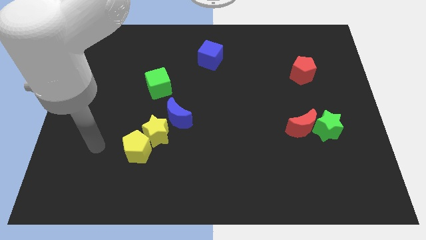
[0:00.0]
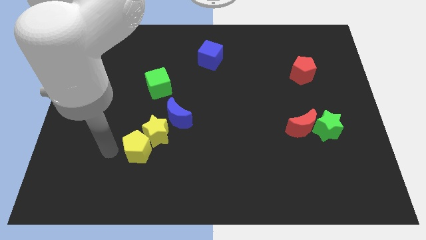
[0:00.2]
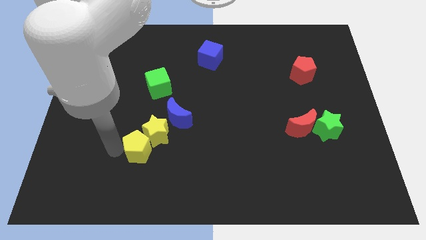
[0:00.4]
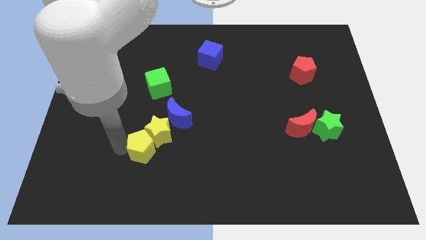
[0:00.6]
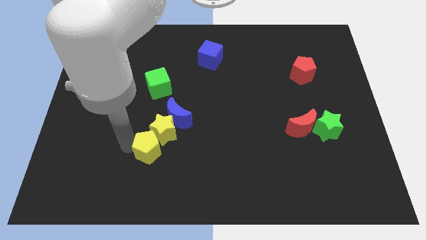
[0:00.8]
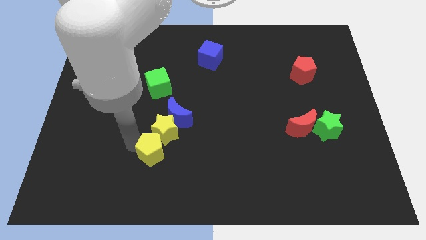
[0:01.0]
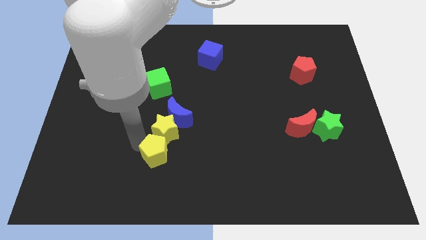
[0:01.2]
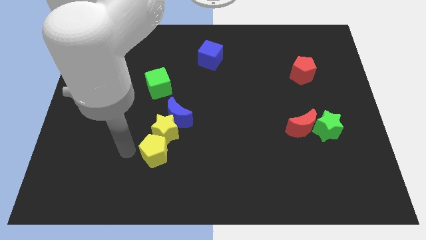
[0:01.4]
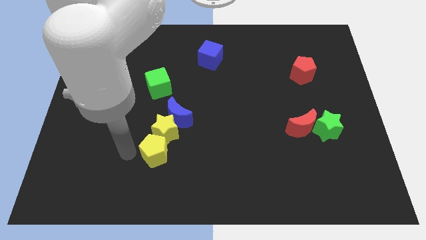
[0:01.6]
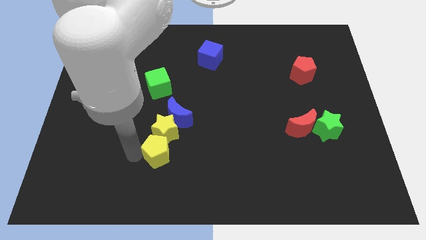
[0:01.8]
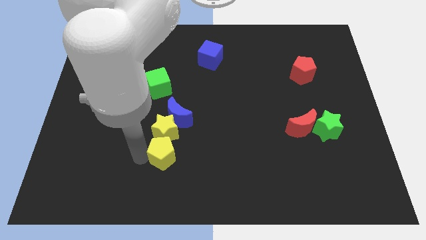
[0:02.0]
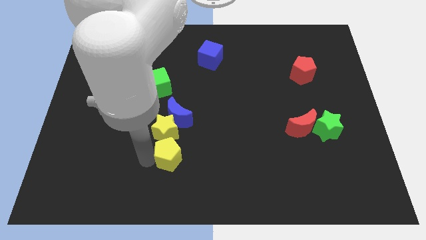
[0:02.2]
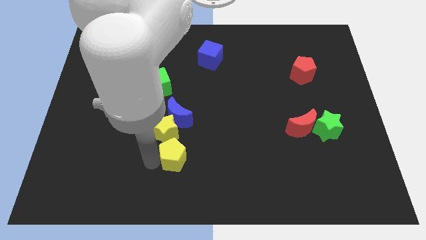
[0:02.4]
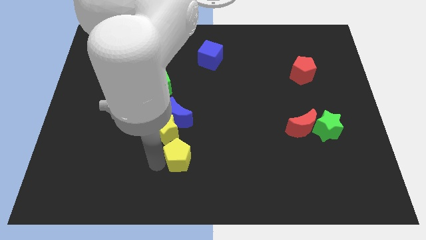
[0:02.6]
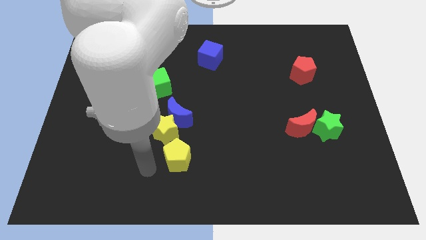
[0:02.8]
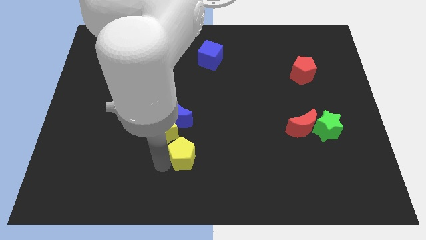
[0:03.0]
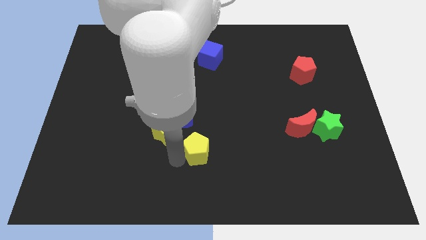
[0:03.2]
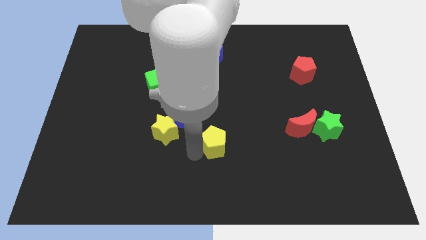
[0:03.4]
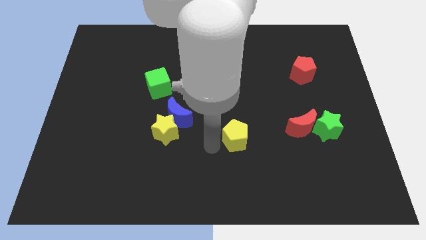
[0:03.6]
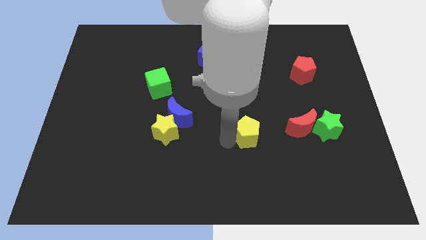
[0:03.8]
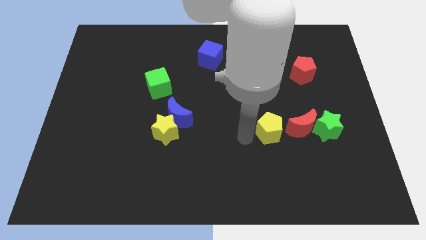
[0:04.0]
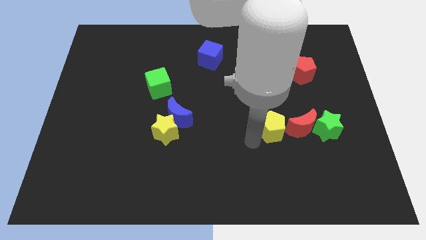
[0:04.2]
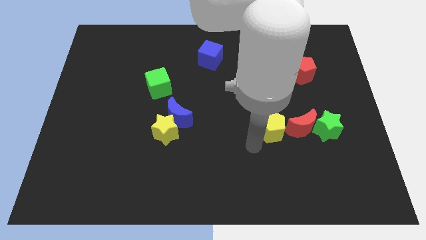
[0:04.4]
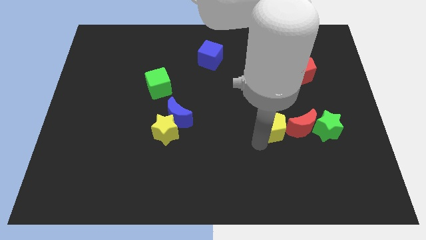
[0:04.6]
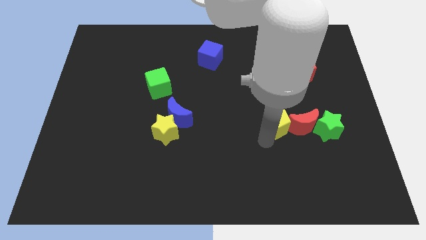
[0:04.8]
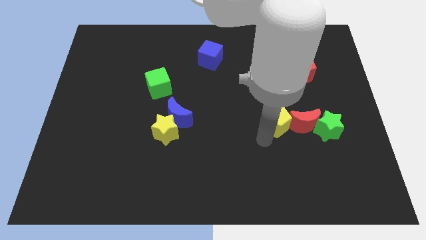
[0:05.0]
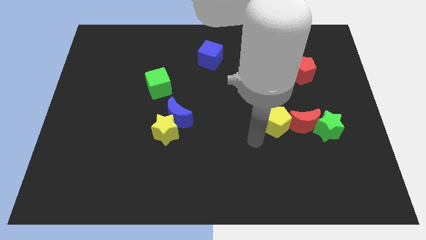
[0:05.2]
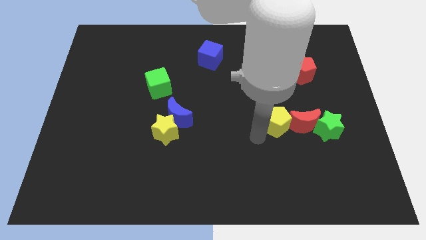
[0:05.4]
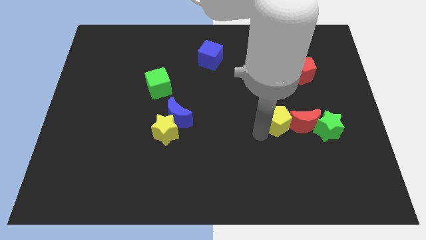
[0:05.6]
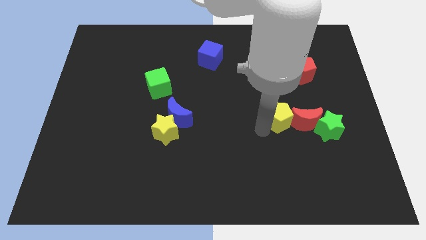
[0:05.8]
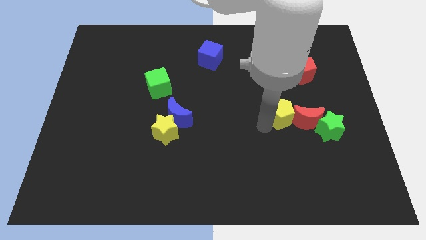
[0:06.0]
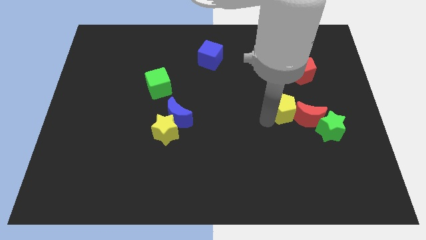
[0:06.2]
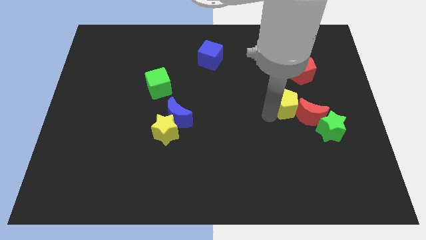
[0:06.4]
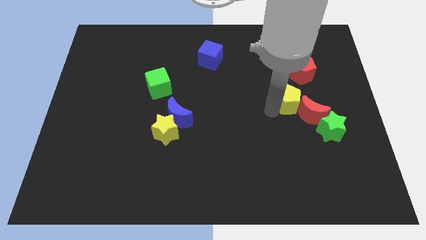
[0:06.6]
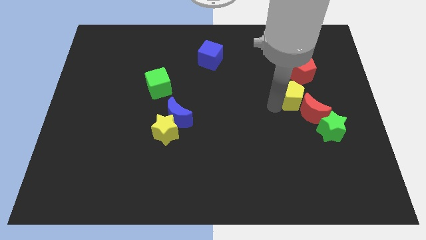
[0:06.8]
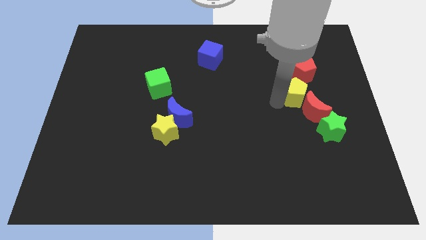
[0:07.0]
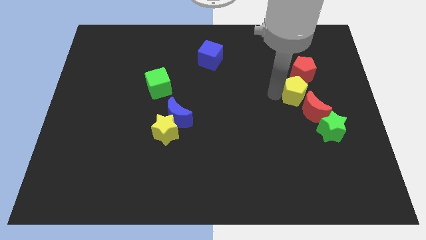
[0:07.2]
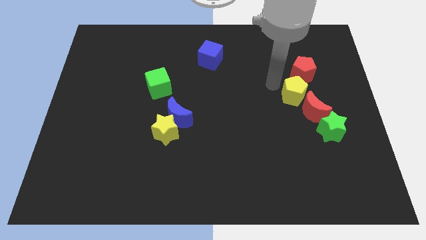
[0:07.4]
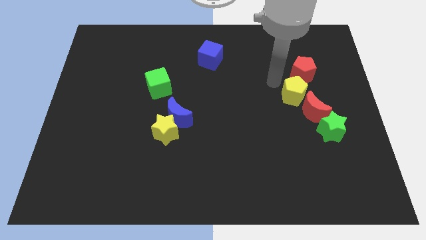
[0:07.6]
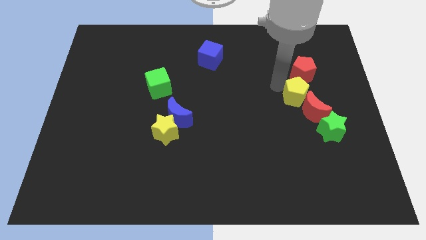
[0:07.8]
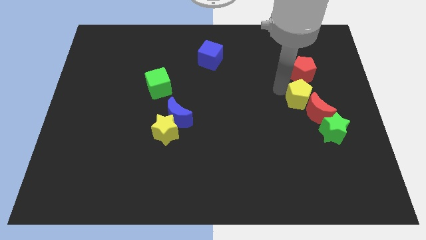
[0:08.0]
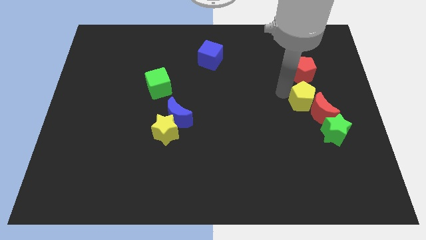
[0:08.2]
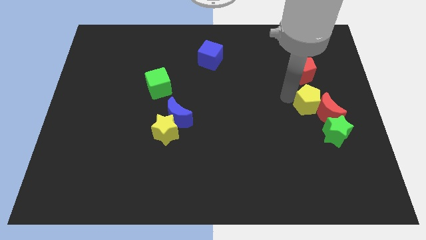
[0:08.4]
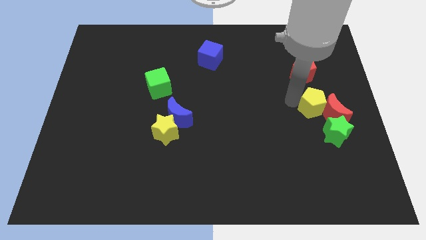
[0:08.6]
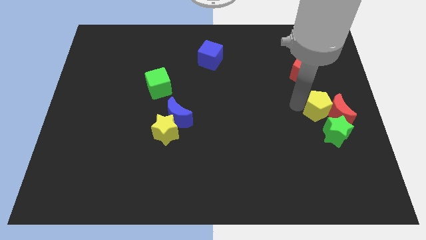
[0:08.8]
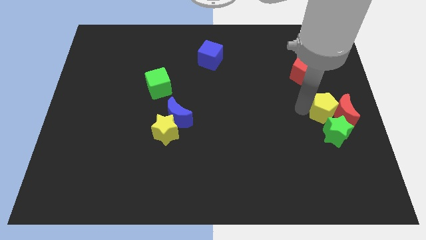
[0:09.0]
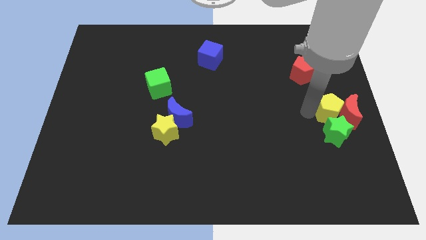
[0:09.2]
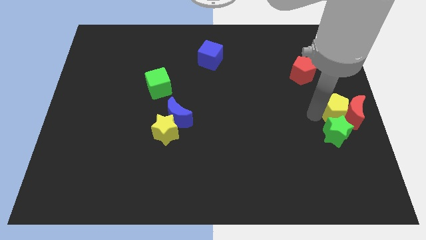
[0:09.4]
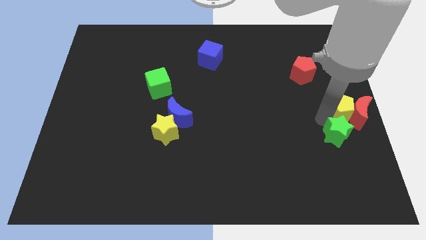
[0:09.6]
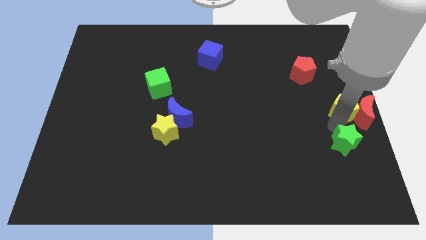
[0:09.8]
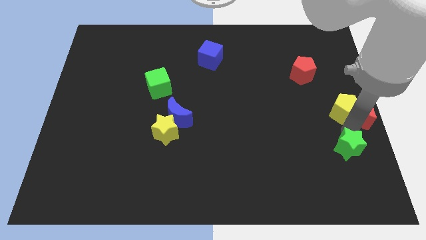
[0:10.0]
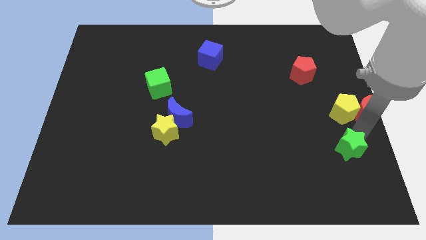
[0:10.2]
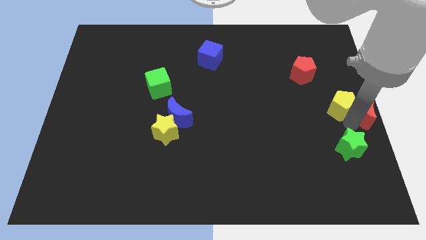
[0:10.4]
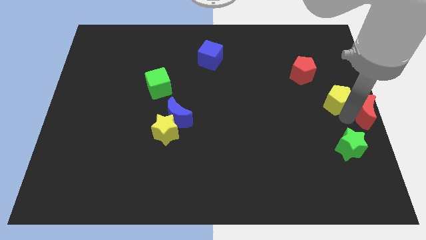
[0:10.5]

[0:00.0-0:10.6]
slide the yellow pentagon to the bottom right of the red pentagon

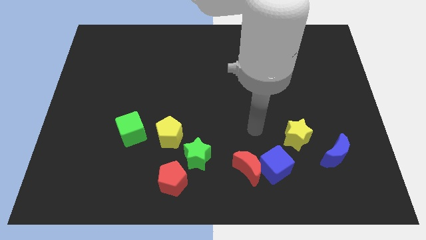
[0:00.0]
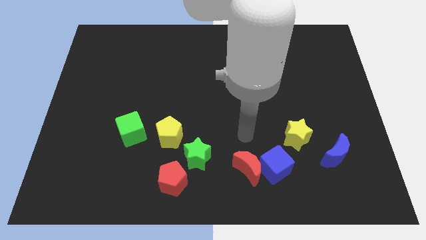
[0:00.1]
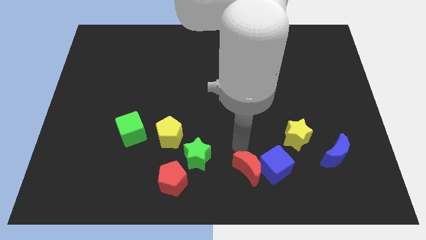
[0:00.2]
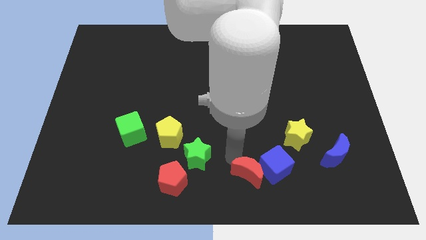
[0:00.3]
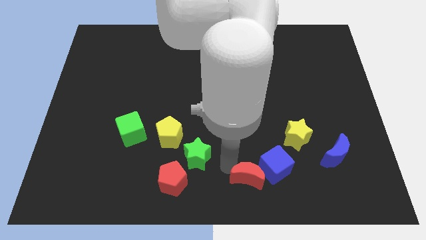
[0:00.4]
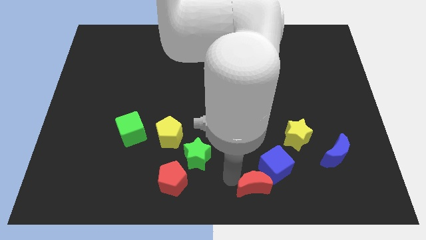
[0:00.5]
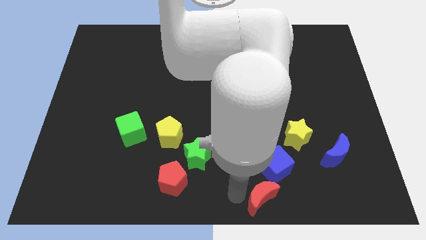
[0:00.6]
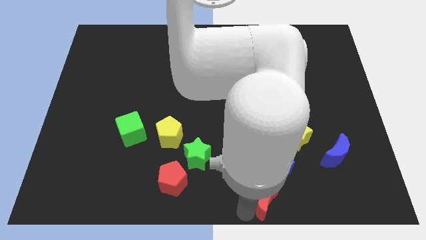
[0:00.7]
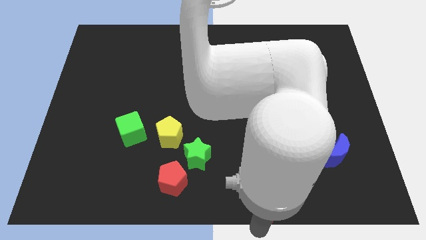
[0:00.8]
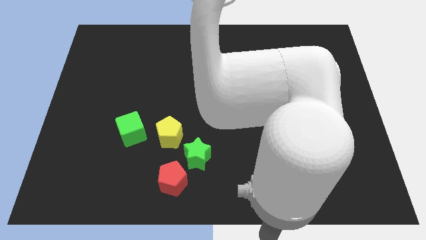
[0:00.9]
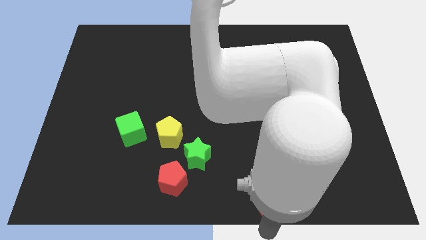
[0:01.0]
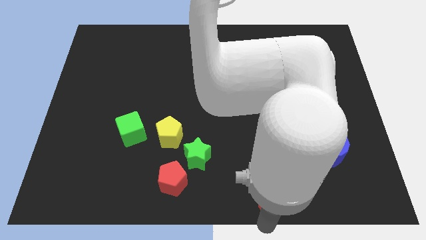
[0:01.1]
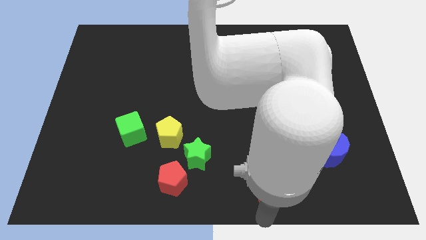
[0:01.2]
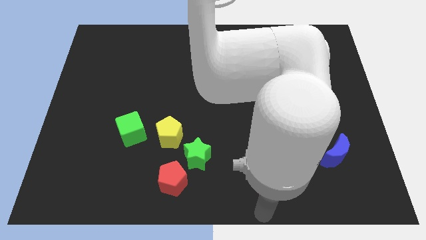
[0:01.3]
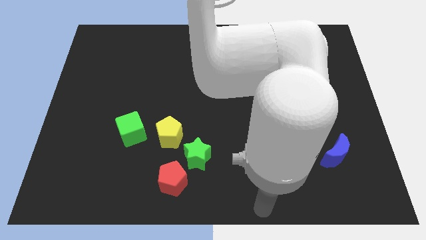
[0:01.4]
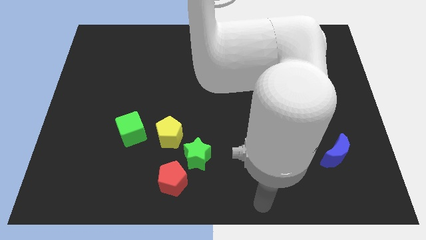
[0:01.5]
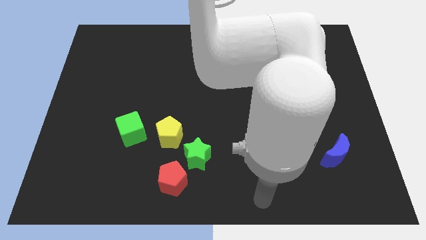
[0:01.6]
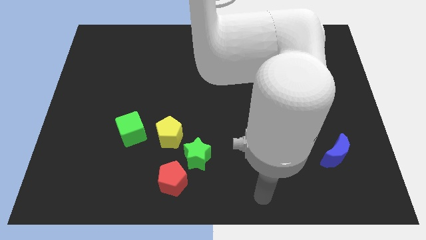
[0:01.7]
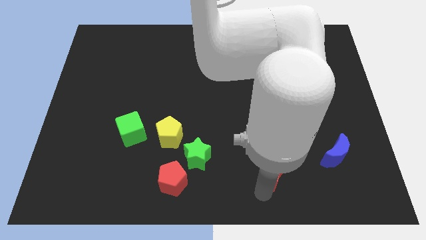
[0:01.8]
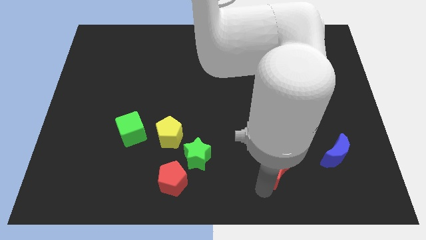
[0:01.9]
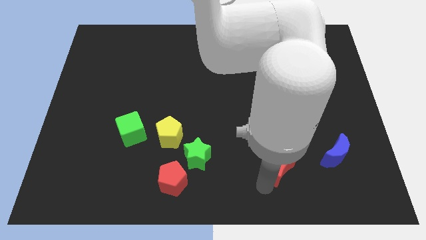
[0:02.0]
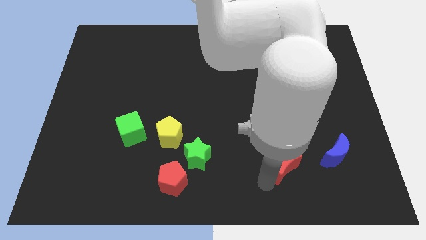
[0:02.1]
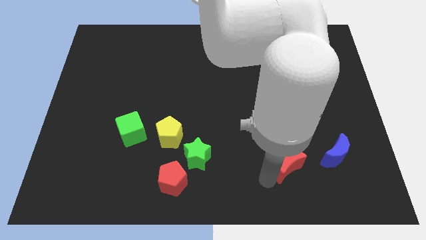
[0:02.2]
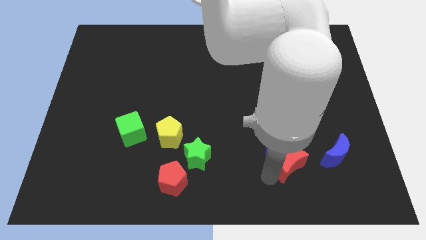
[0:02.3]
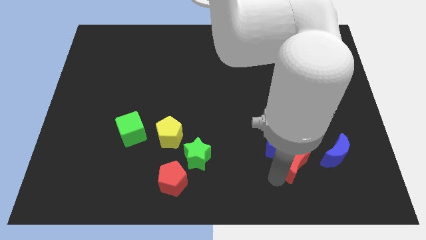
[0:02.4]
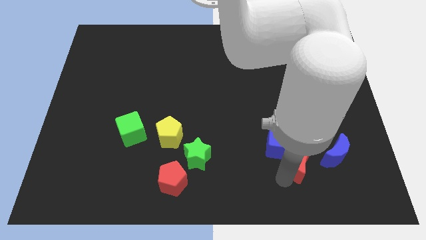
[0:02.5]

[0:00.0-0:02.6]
push the red moon to the right side of the blue cube
